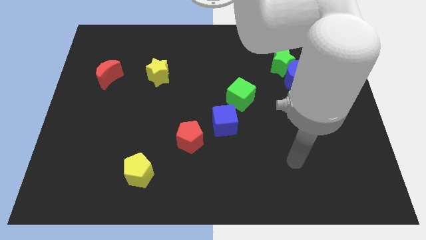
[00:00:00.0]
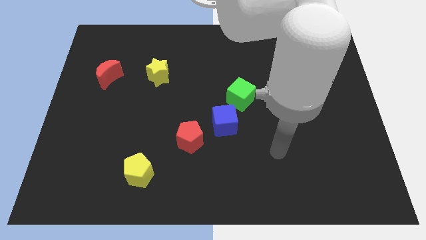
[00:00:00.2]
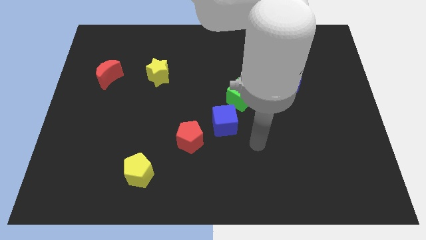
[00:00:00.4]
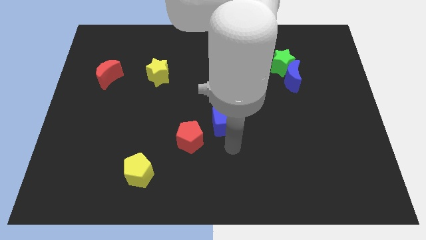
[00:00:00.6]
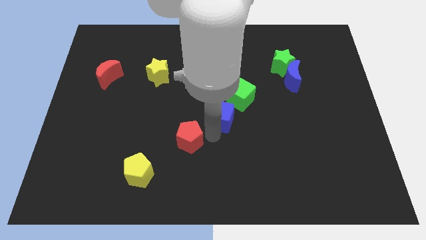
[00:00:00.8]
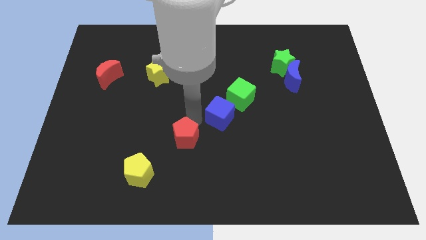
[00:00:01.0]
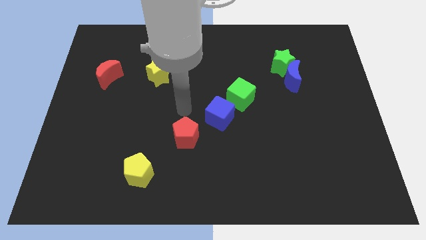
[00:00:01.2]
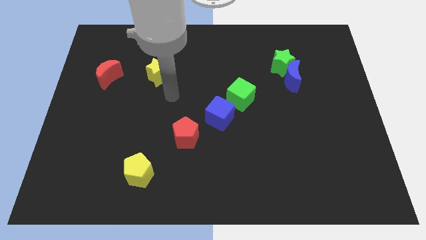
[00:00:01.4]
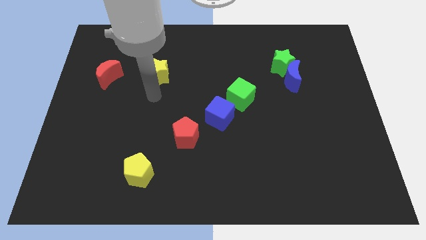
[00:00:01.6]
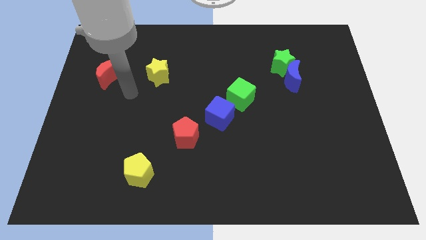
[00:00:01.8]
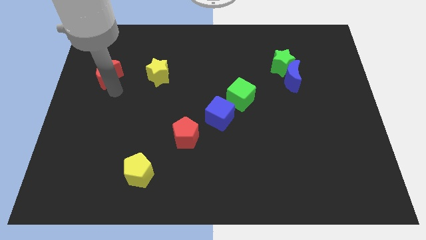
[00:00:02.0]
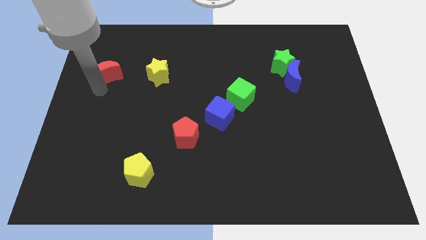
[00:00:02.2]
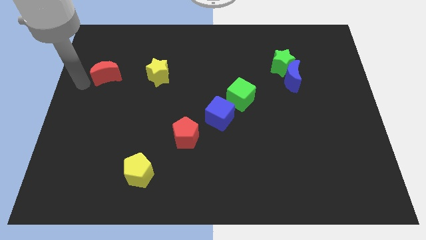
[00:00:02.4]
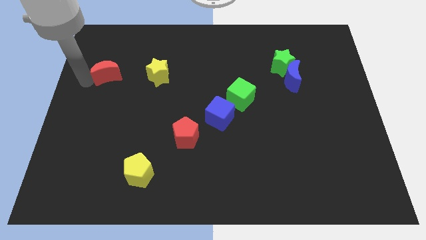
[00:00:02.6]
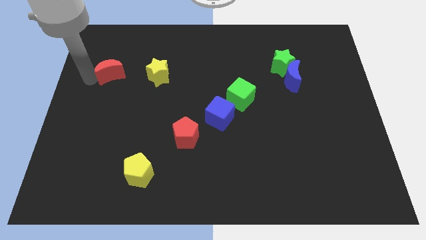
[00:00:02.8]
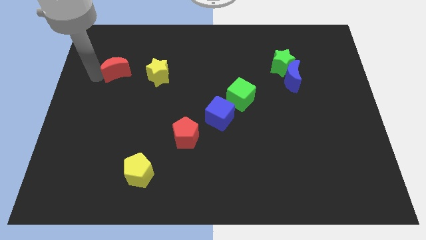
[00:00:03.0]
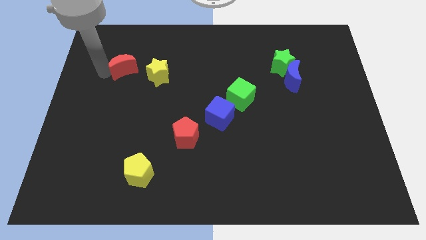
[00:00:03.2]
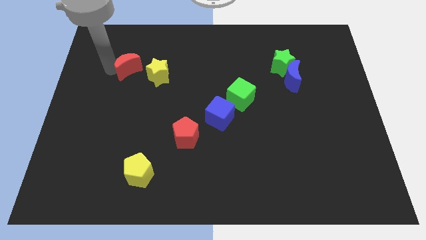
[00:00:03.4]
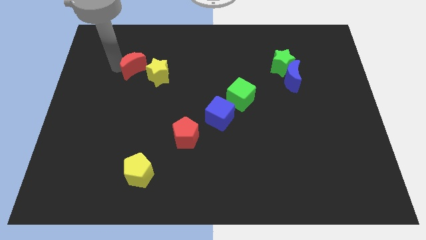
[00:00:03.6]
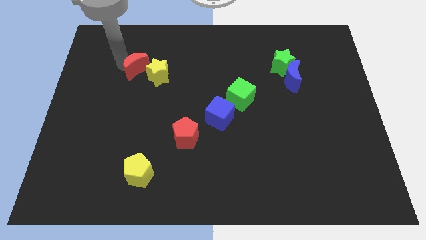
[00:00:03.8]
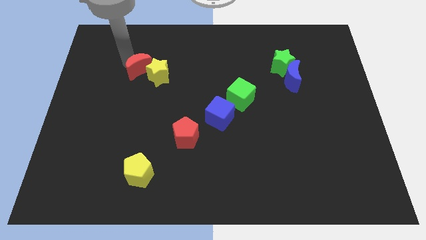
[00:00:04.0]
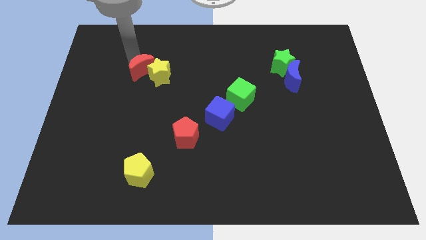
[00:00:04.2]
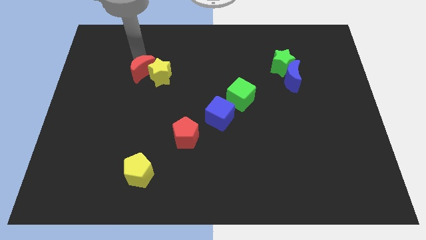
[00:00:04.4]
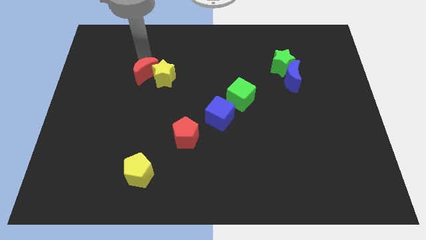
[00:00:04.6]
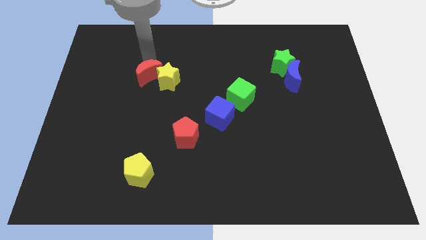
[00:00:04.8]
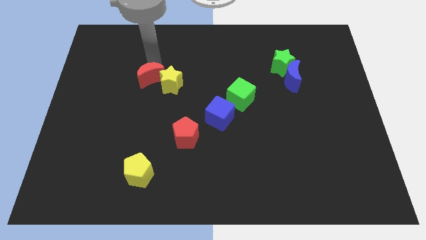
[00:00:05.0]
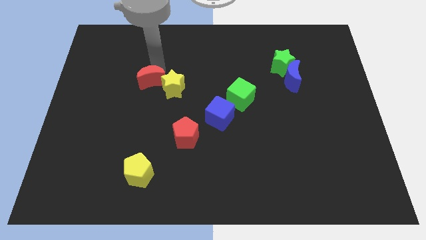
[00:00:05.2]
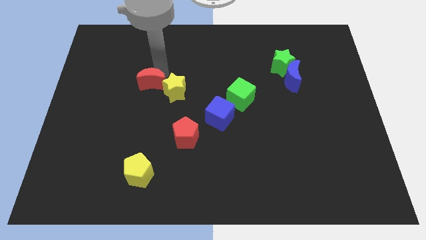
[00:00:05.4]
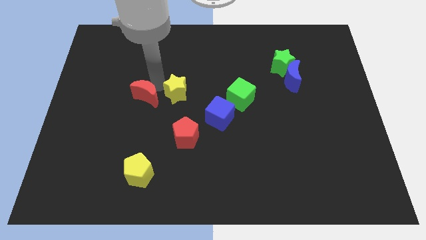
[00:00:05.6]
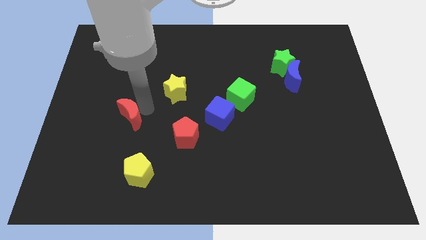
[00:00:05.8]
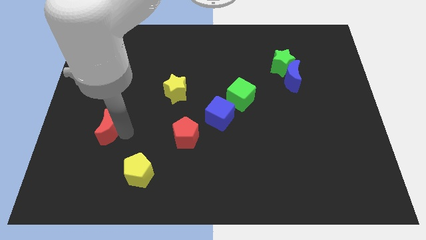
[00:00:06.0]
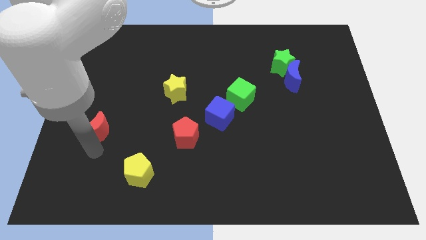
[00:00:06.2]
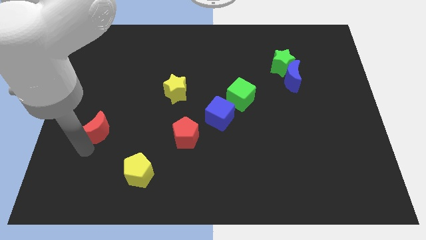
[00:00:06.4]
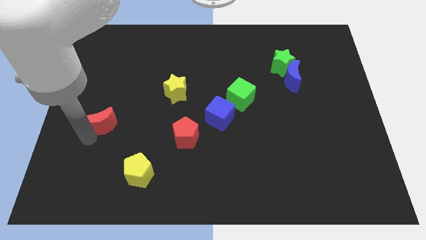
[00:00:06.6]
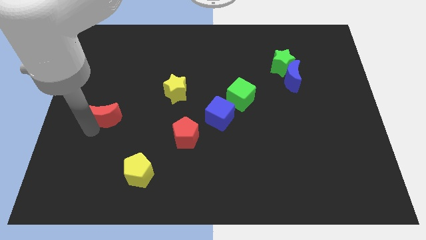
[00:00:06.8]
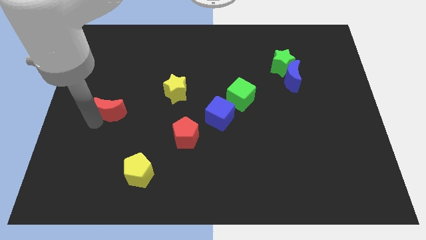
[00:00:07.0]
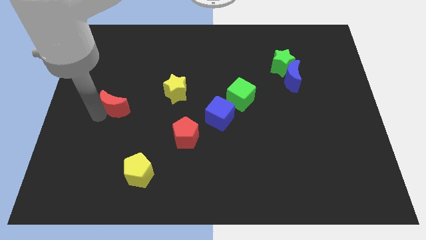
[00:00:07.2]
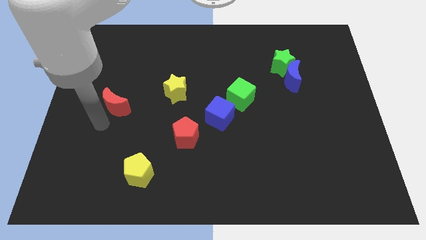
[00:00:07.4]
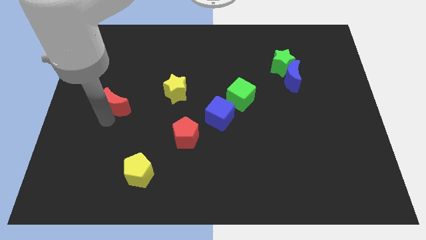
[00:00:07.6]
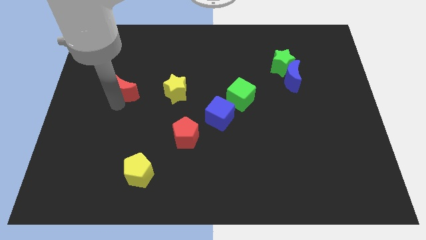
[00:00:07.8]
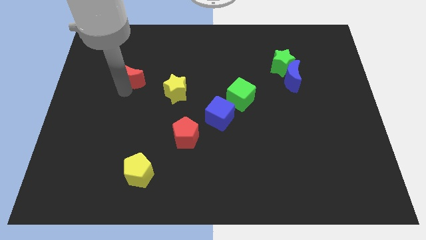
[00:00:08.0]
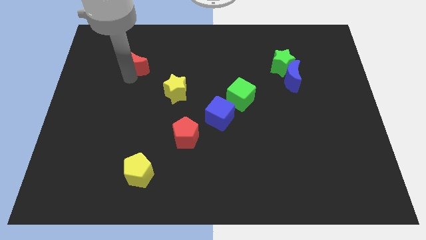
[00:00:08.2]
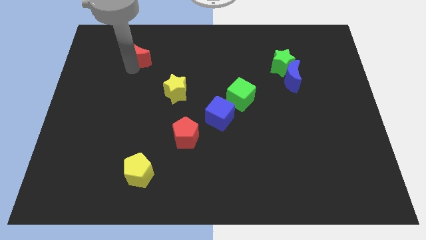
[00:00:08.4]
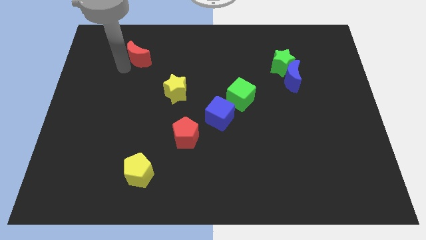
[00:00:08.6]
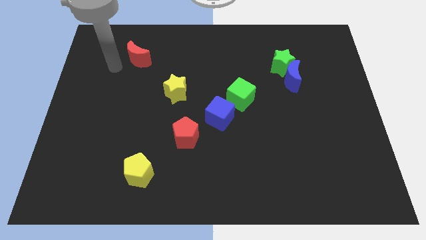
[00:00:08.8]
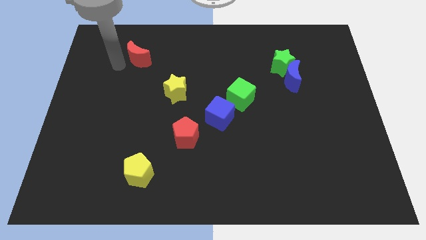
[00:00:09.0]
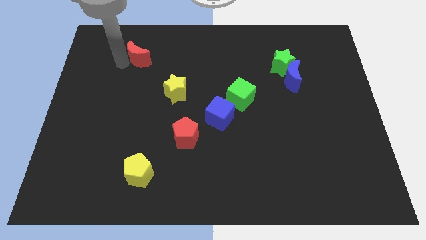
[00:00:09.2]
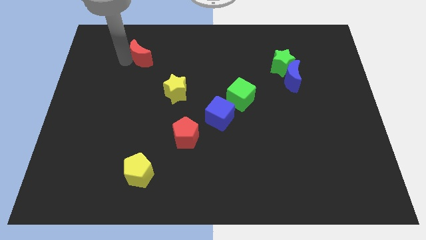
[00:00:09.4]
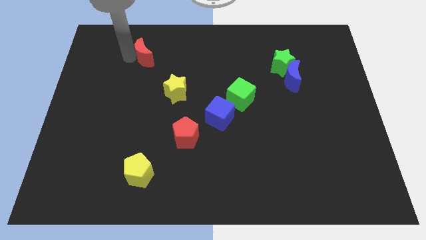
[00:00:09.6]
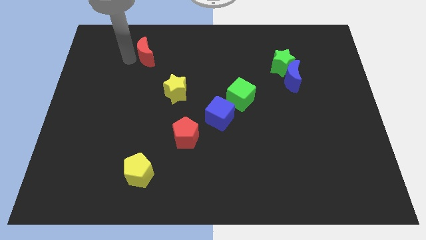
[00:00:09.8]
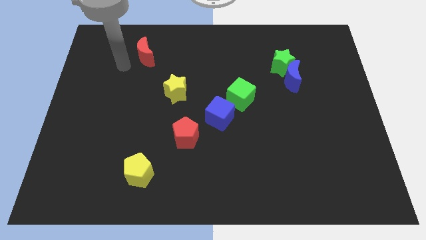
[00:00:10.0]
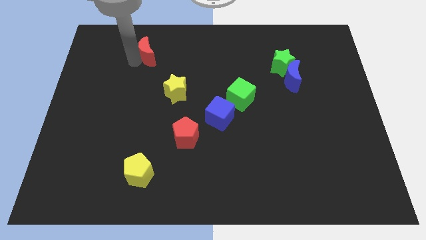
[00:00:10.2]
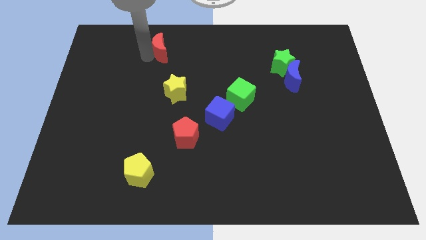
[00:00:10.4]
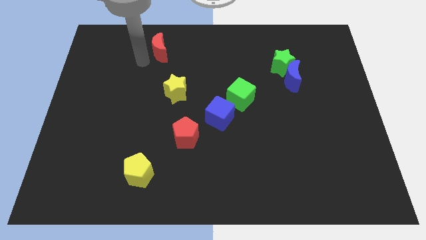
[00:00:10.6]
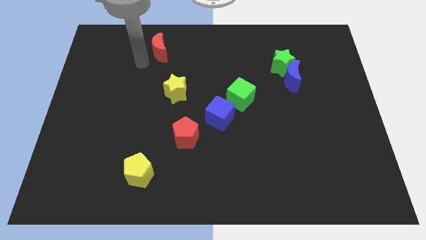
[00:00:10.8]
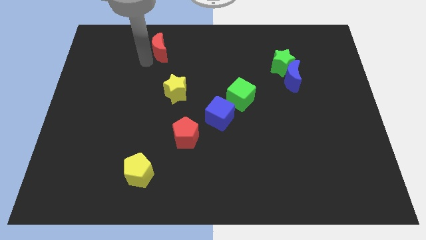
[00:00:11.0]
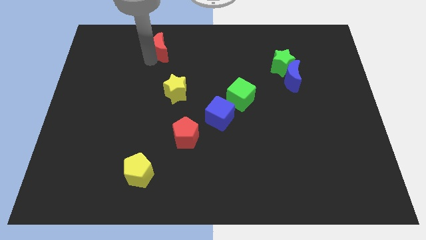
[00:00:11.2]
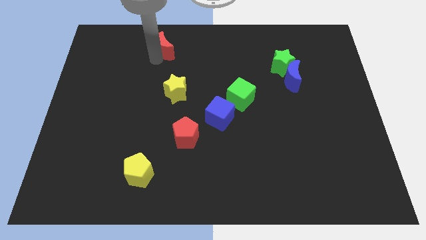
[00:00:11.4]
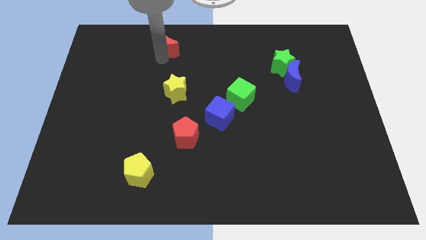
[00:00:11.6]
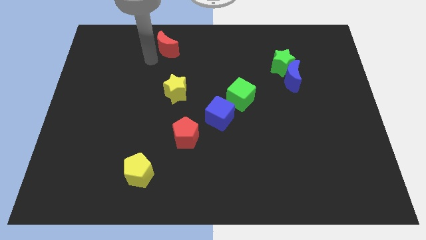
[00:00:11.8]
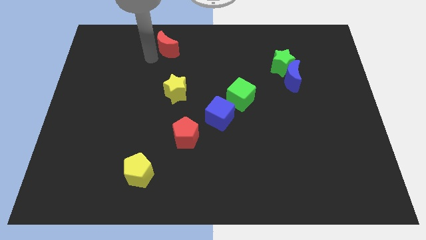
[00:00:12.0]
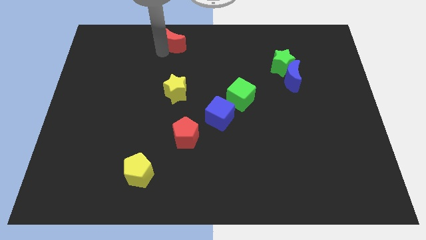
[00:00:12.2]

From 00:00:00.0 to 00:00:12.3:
put the red moon to the top side
